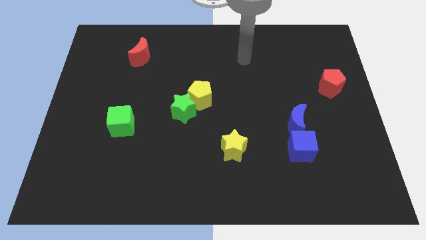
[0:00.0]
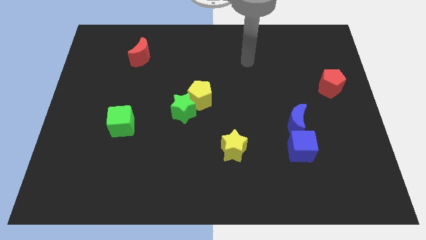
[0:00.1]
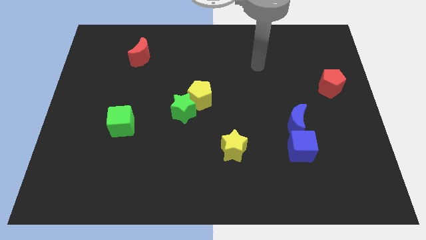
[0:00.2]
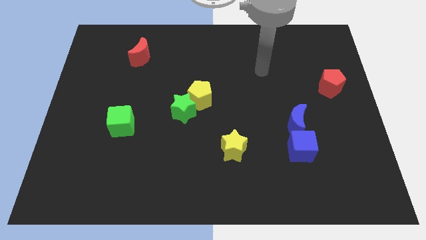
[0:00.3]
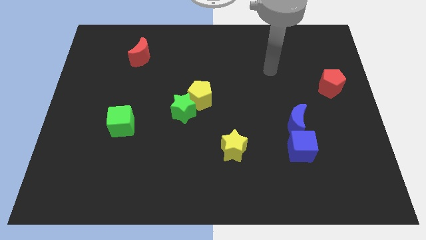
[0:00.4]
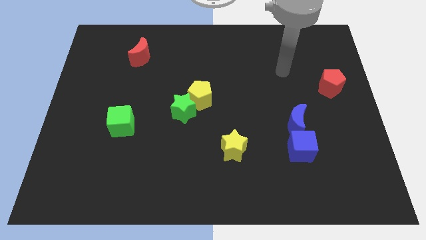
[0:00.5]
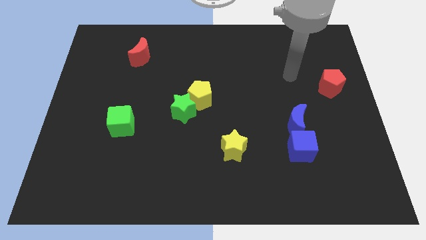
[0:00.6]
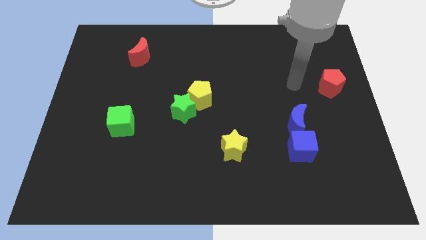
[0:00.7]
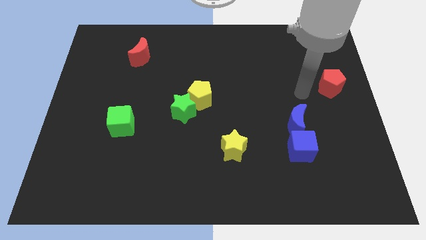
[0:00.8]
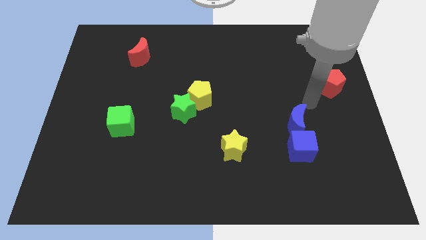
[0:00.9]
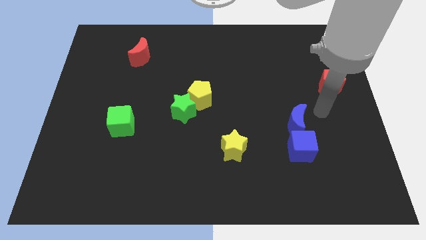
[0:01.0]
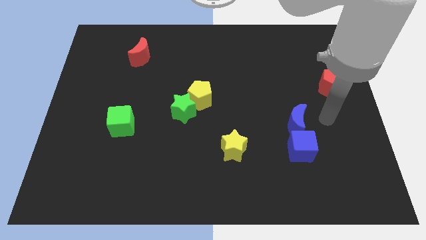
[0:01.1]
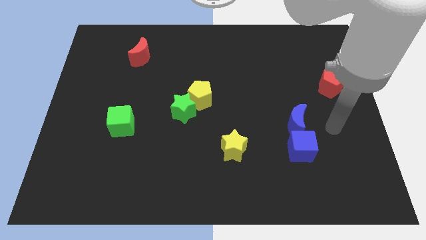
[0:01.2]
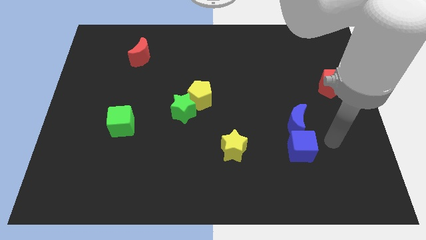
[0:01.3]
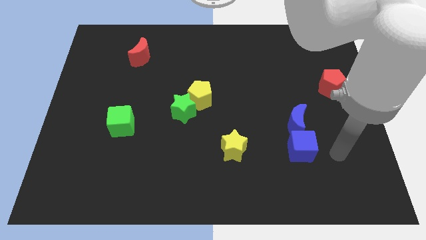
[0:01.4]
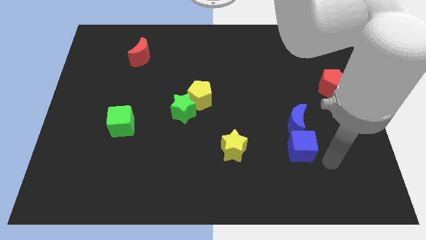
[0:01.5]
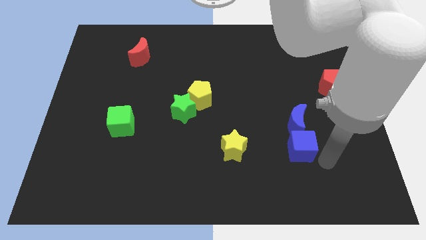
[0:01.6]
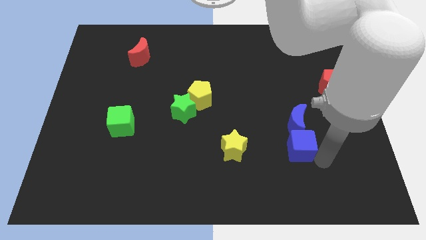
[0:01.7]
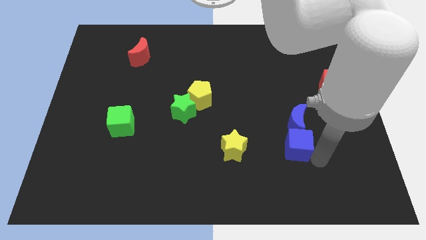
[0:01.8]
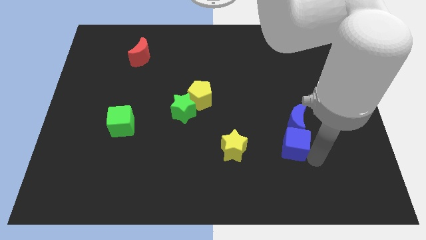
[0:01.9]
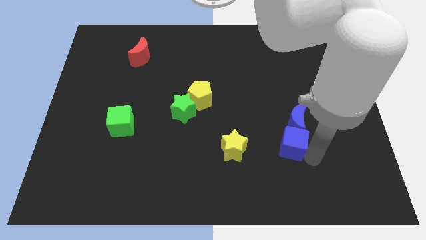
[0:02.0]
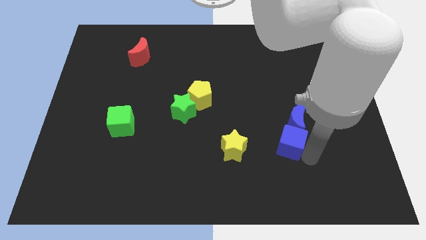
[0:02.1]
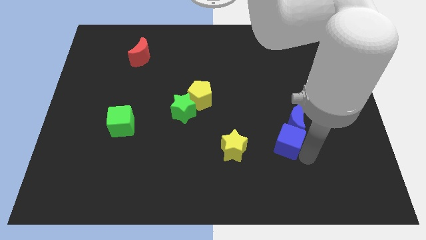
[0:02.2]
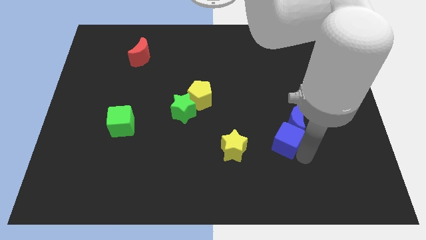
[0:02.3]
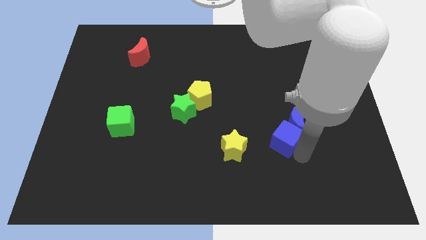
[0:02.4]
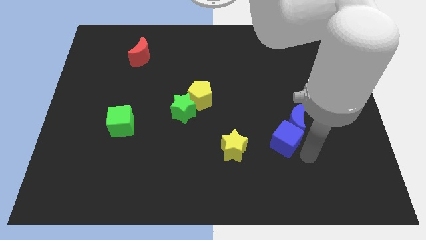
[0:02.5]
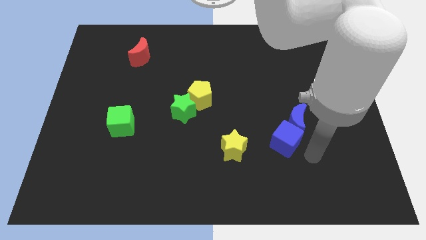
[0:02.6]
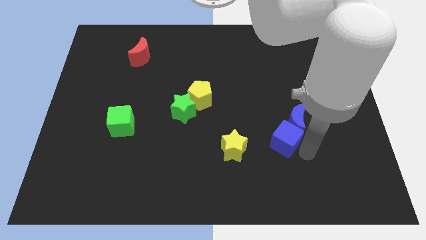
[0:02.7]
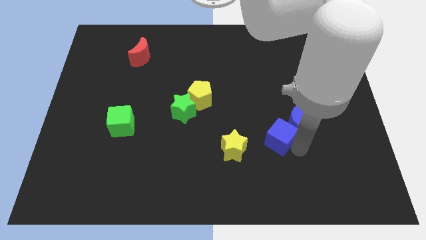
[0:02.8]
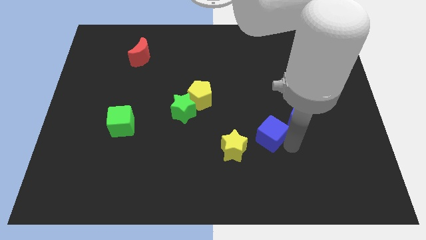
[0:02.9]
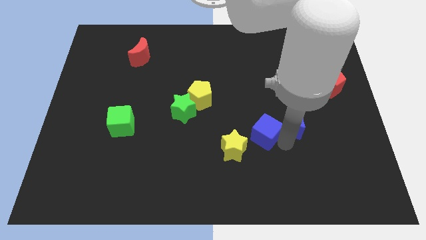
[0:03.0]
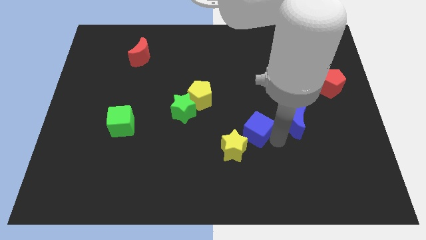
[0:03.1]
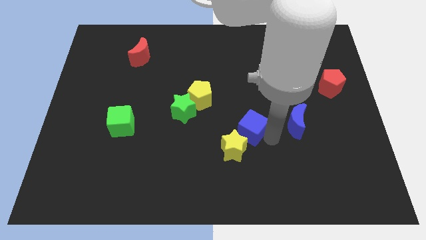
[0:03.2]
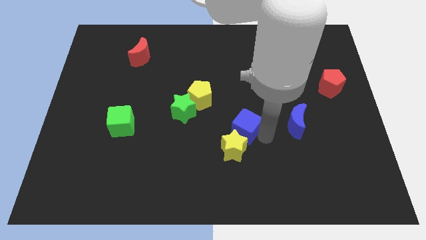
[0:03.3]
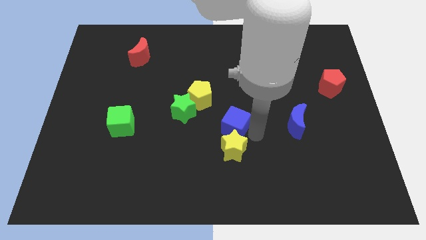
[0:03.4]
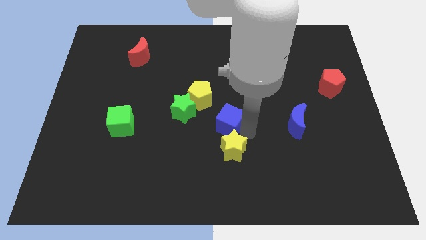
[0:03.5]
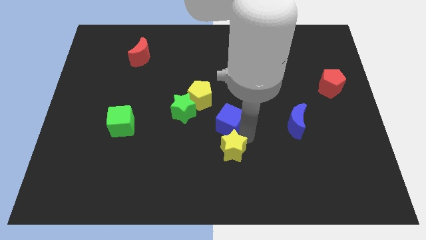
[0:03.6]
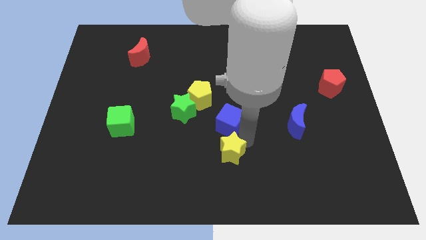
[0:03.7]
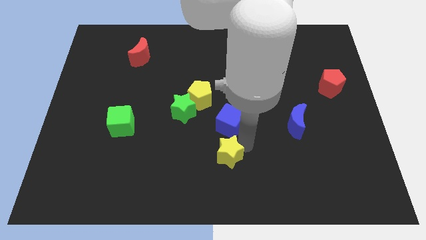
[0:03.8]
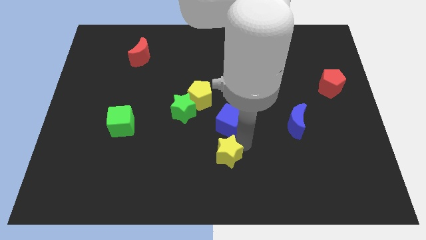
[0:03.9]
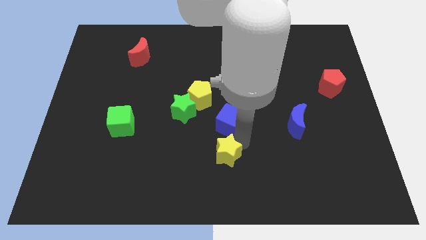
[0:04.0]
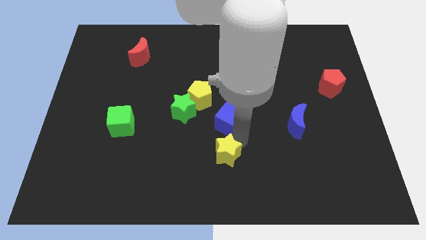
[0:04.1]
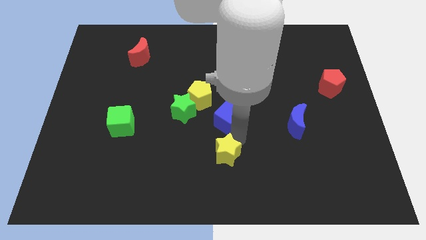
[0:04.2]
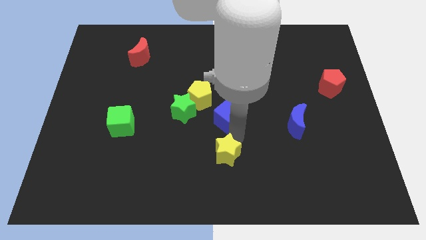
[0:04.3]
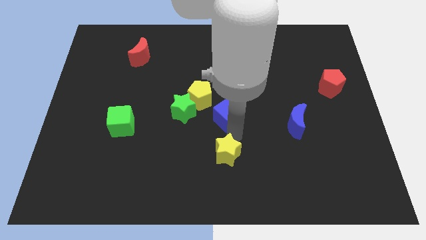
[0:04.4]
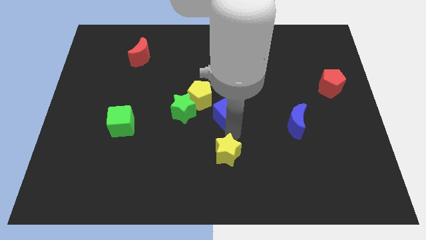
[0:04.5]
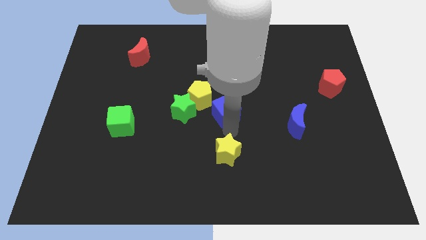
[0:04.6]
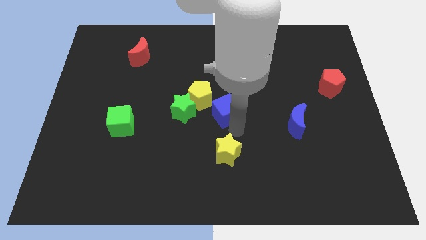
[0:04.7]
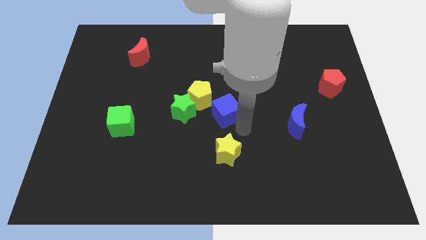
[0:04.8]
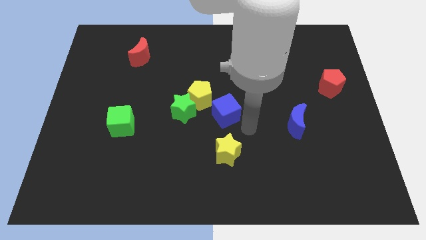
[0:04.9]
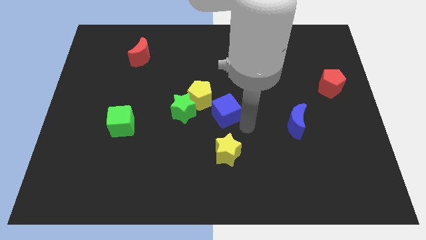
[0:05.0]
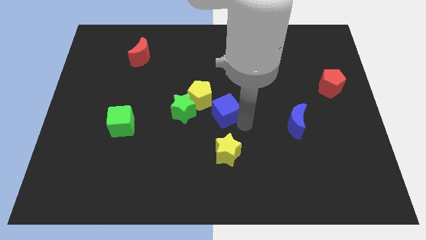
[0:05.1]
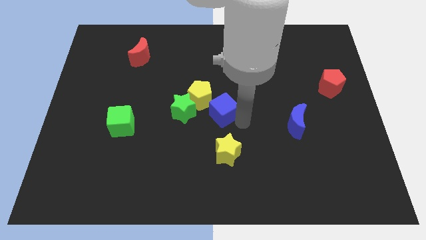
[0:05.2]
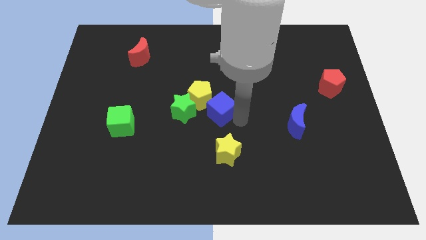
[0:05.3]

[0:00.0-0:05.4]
put the blue cube to the yellow pentagon

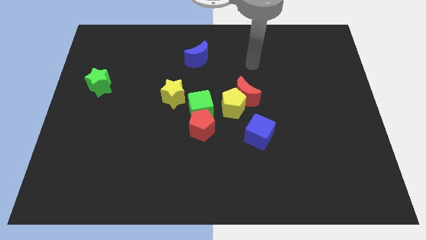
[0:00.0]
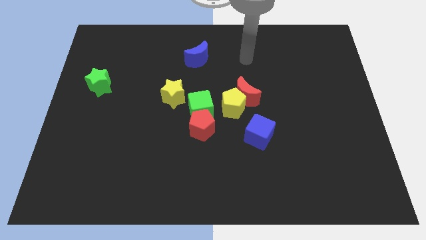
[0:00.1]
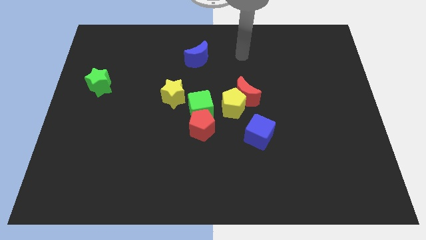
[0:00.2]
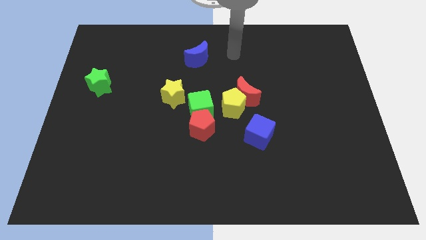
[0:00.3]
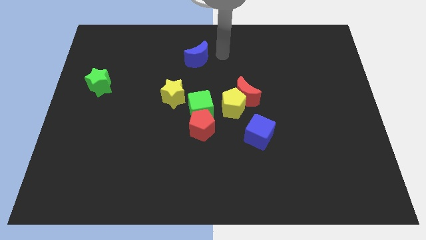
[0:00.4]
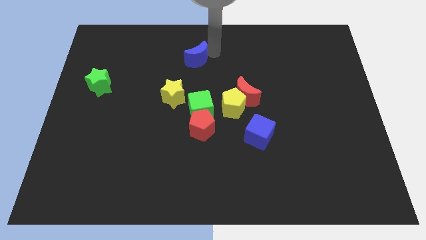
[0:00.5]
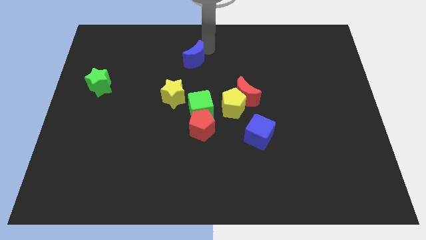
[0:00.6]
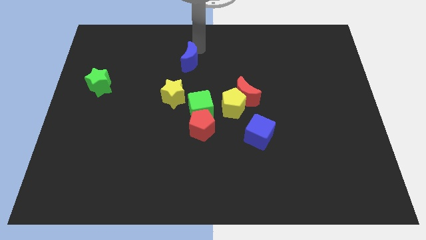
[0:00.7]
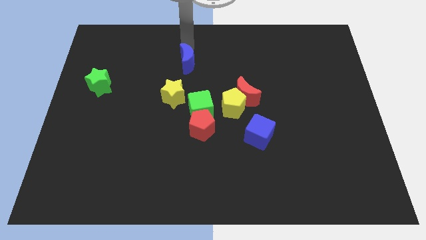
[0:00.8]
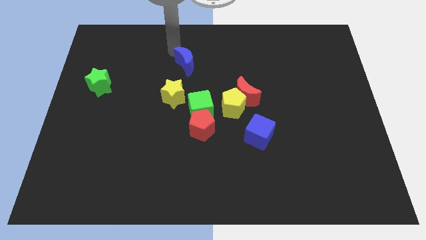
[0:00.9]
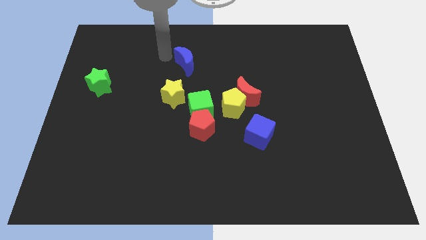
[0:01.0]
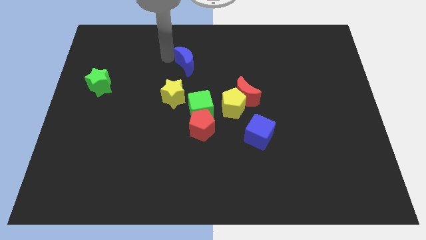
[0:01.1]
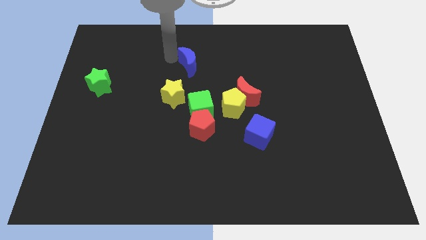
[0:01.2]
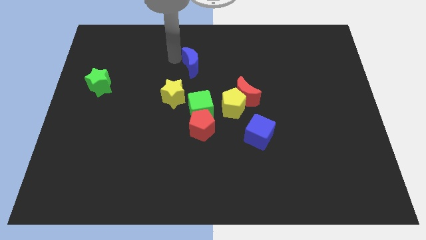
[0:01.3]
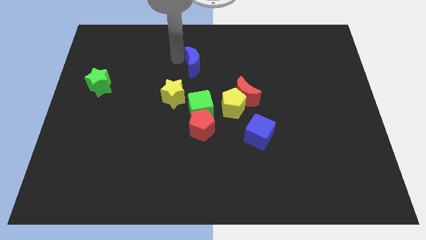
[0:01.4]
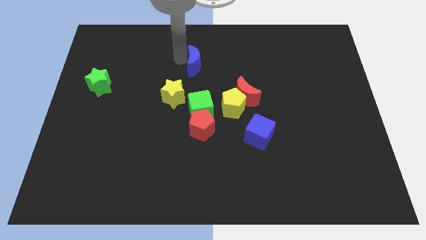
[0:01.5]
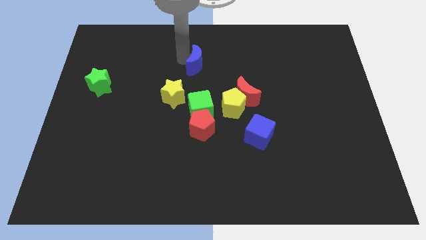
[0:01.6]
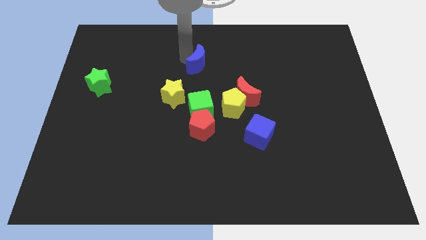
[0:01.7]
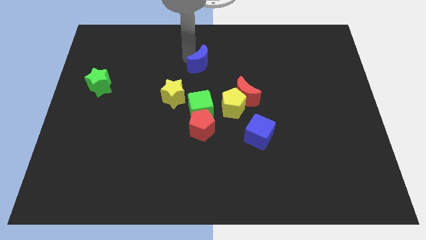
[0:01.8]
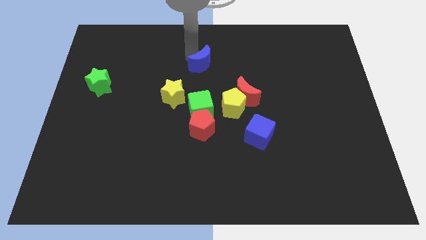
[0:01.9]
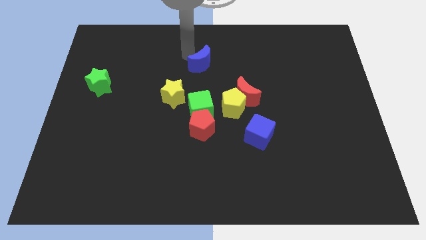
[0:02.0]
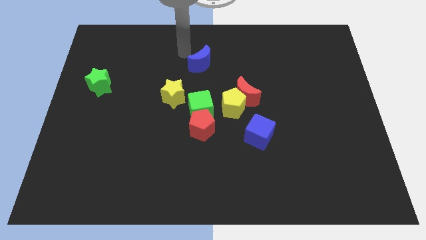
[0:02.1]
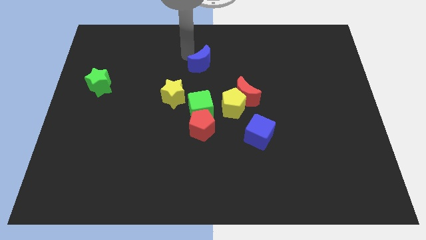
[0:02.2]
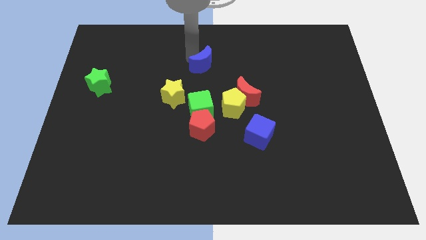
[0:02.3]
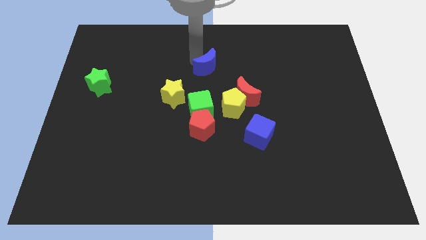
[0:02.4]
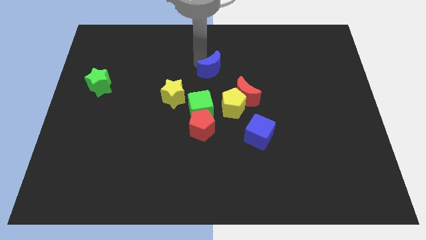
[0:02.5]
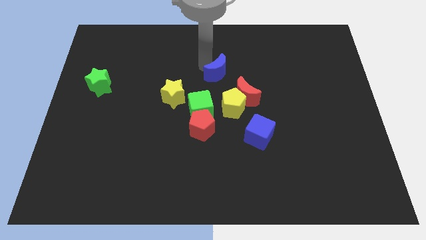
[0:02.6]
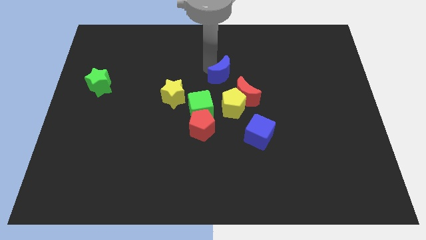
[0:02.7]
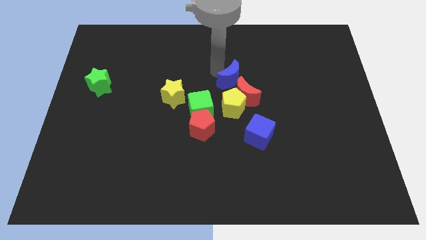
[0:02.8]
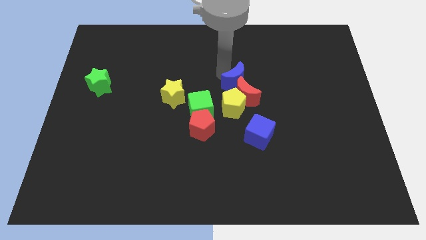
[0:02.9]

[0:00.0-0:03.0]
move the blue moon close to the red moon
